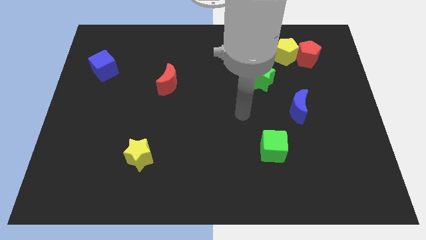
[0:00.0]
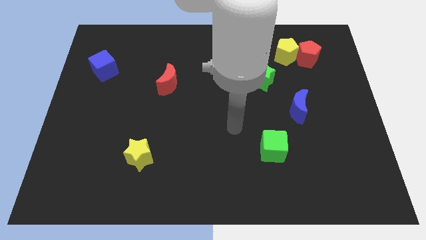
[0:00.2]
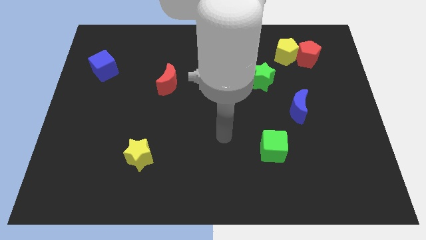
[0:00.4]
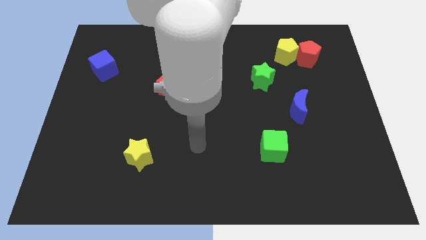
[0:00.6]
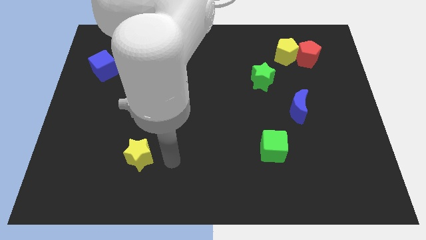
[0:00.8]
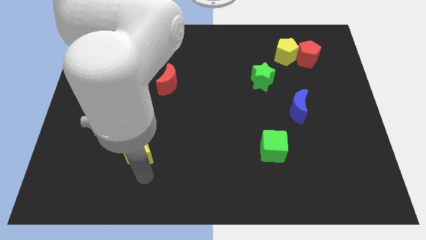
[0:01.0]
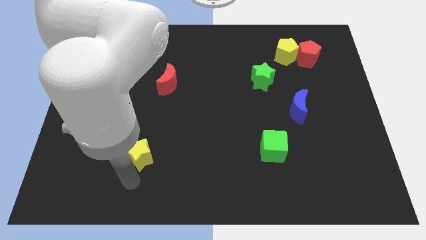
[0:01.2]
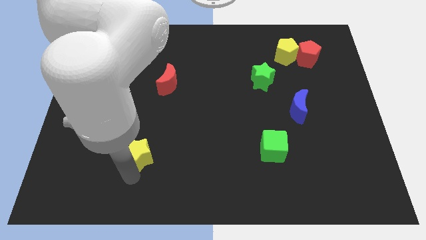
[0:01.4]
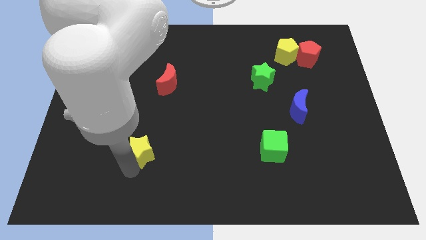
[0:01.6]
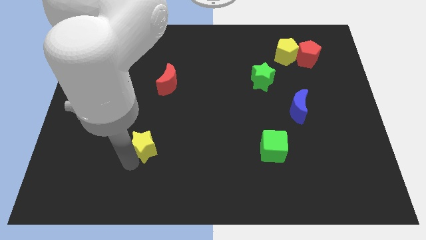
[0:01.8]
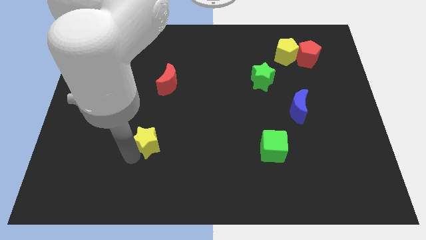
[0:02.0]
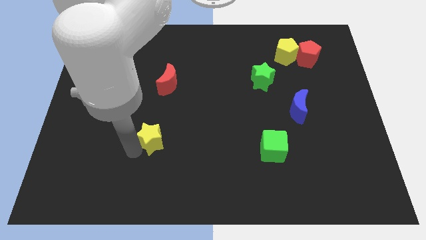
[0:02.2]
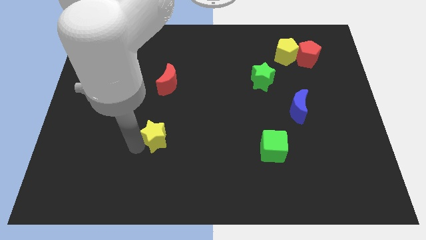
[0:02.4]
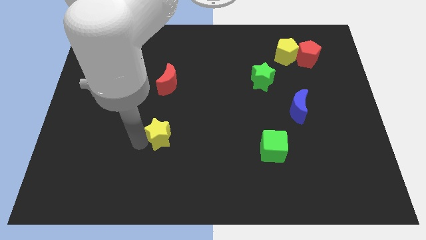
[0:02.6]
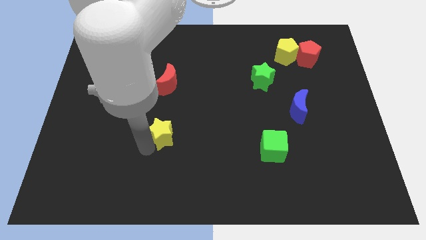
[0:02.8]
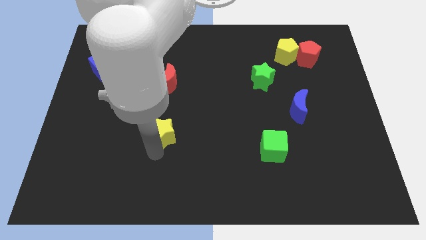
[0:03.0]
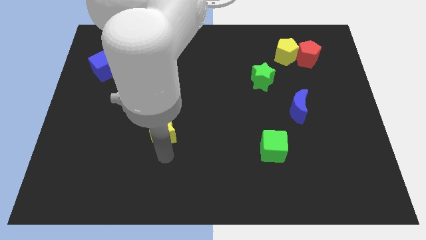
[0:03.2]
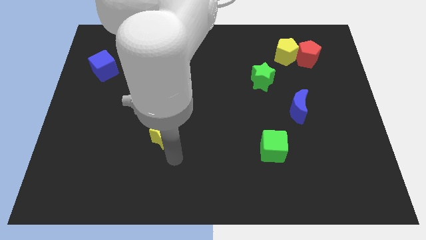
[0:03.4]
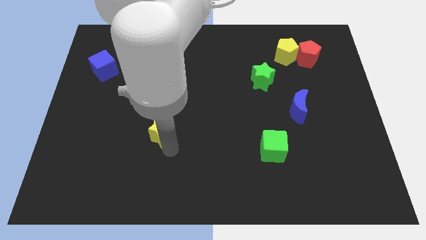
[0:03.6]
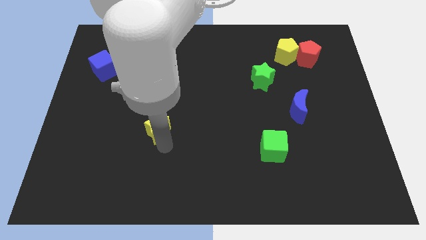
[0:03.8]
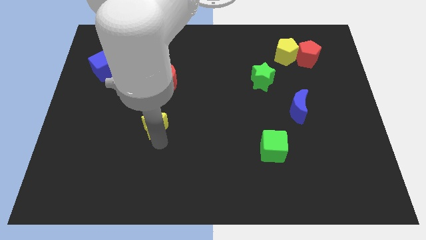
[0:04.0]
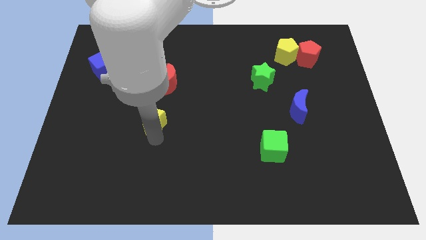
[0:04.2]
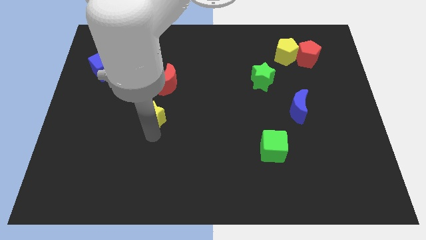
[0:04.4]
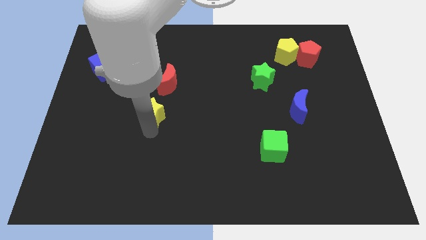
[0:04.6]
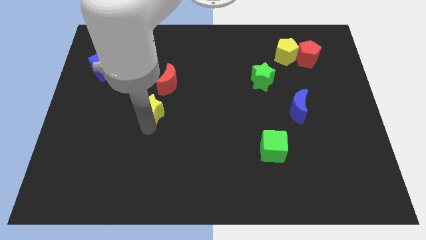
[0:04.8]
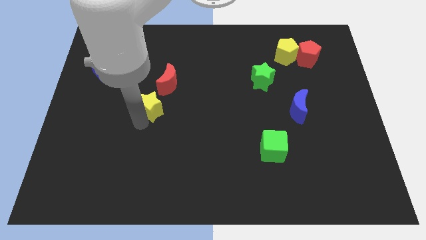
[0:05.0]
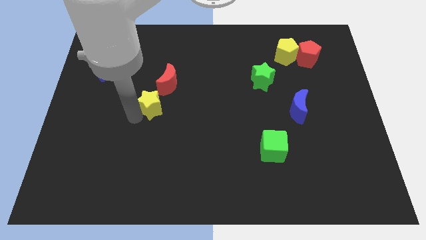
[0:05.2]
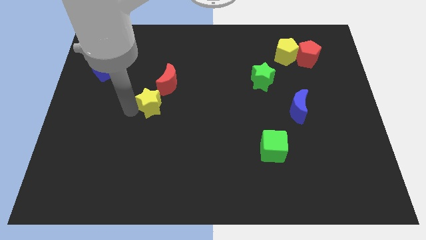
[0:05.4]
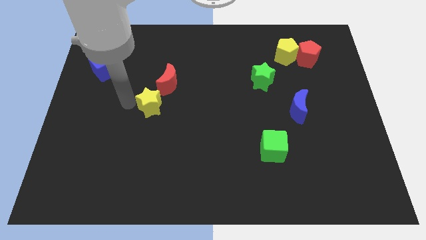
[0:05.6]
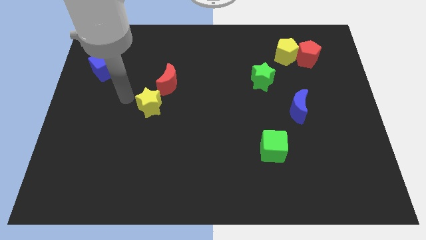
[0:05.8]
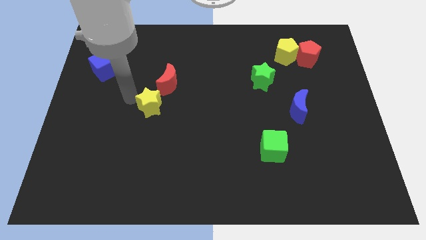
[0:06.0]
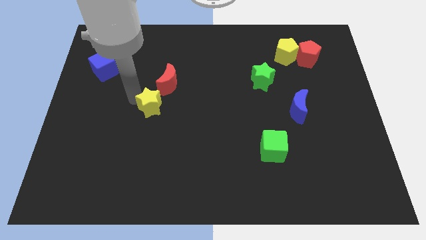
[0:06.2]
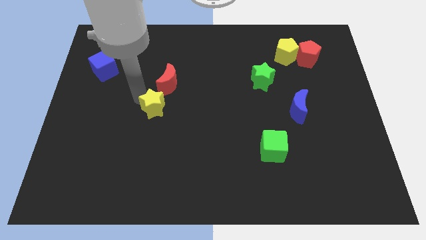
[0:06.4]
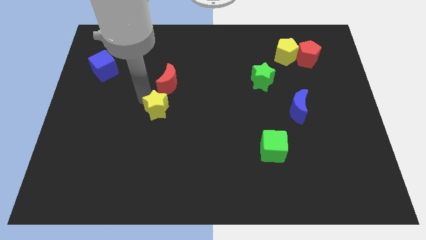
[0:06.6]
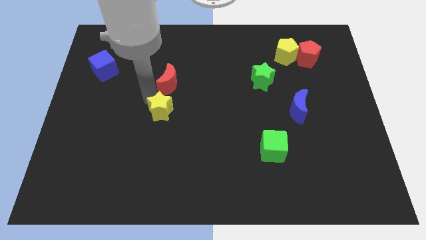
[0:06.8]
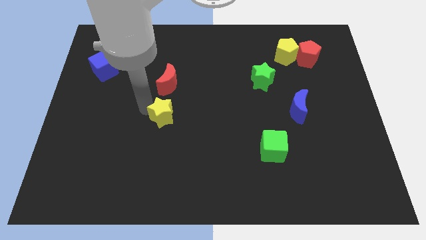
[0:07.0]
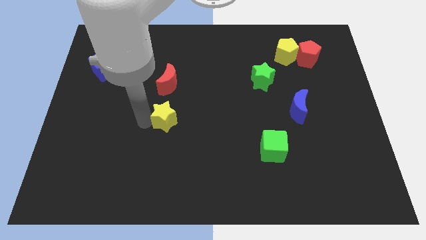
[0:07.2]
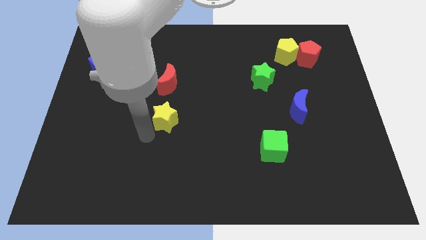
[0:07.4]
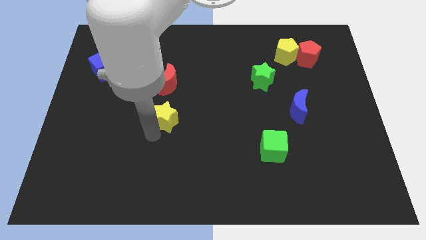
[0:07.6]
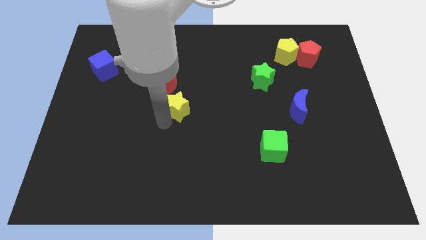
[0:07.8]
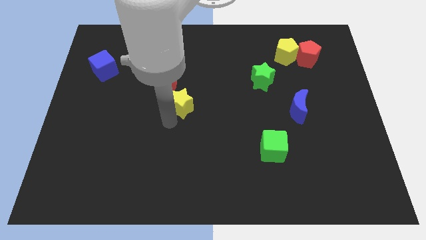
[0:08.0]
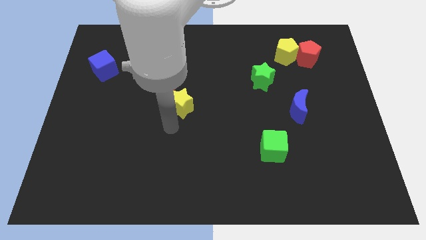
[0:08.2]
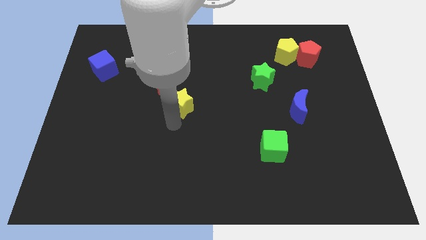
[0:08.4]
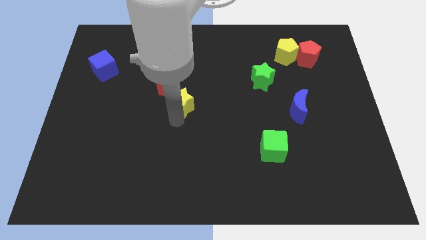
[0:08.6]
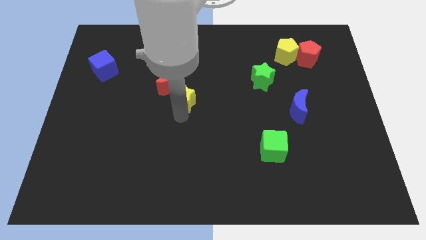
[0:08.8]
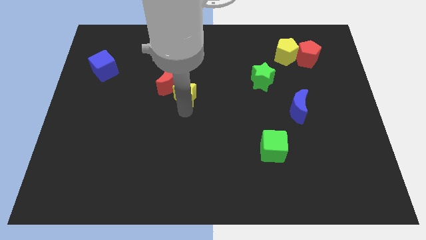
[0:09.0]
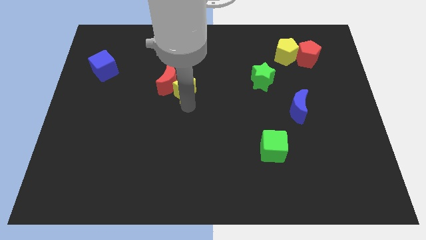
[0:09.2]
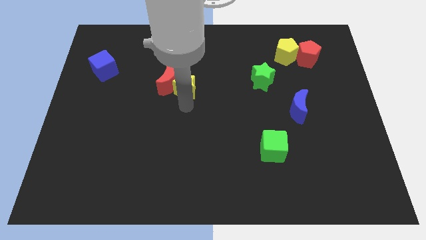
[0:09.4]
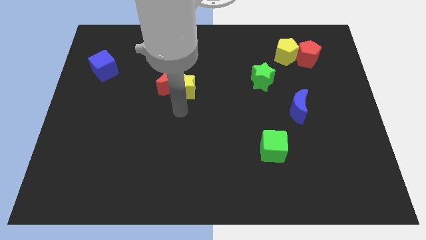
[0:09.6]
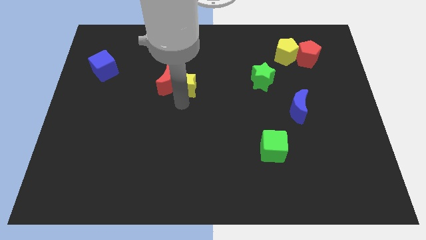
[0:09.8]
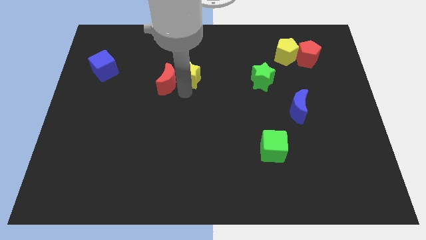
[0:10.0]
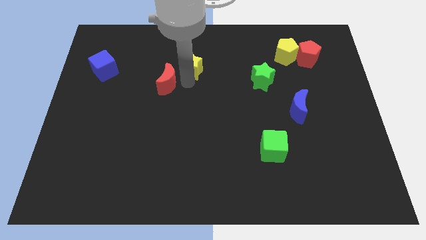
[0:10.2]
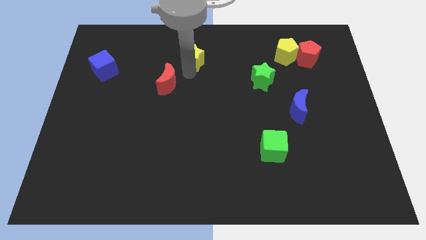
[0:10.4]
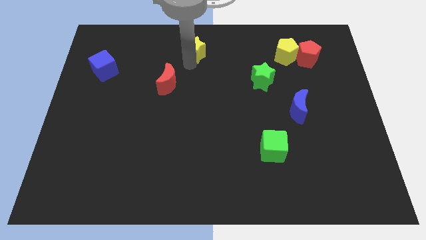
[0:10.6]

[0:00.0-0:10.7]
move the yellow star to the top side
